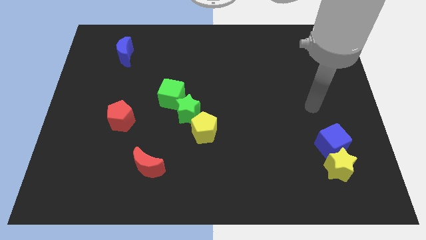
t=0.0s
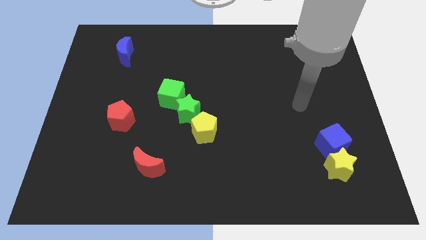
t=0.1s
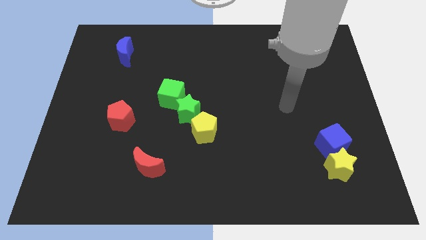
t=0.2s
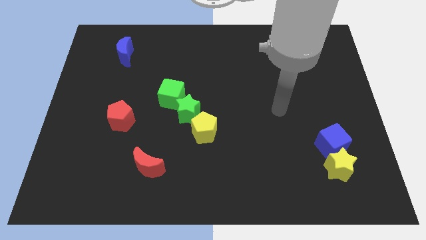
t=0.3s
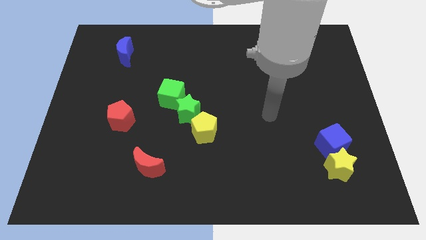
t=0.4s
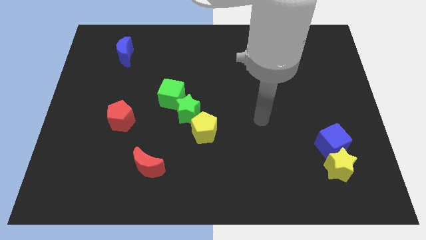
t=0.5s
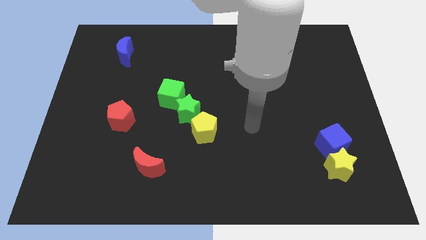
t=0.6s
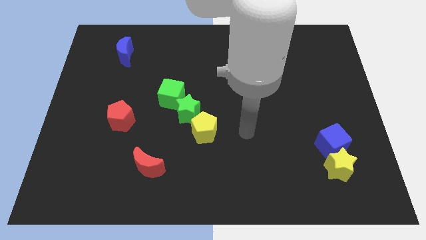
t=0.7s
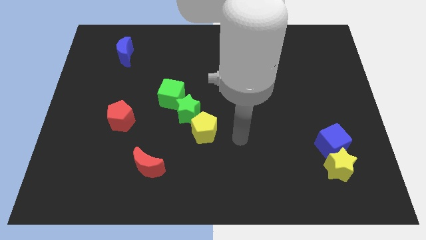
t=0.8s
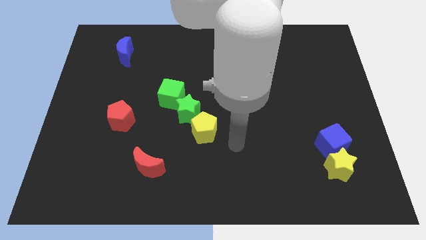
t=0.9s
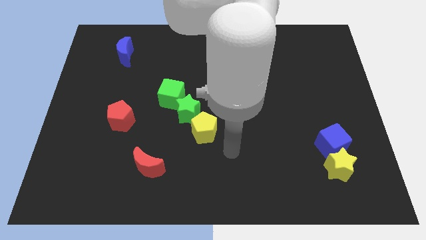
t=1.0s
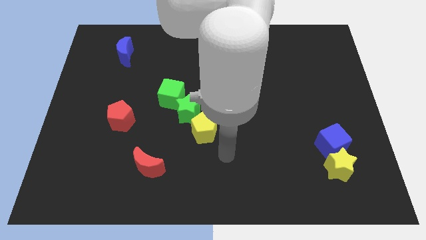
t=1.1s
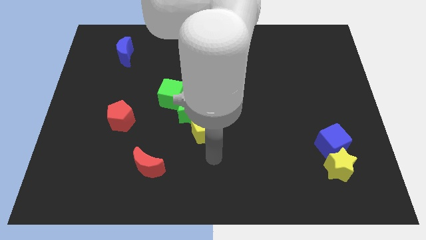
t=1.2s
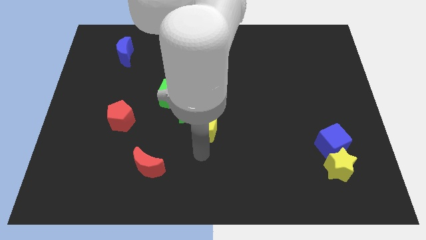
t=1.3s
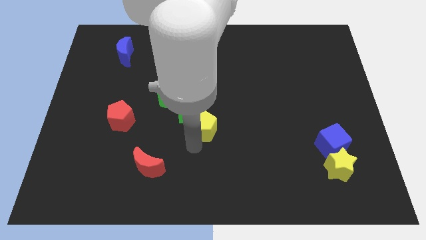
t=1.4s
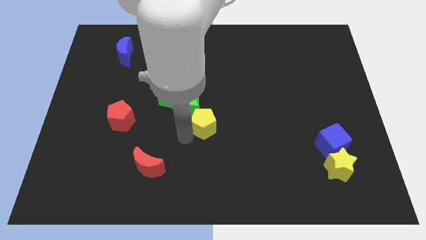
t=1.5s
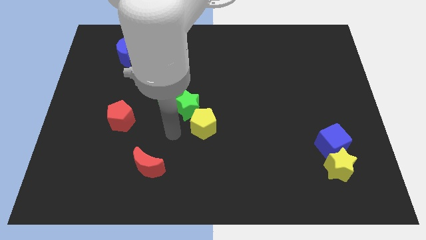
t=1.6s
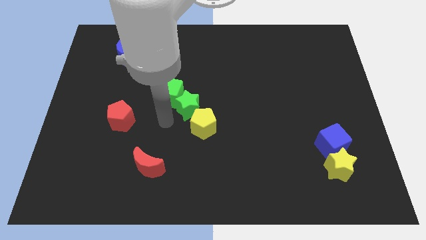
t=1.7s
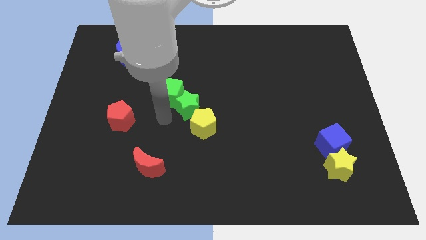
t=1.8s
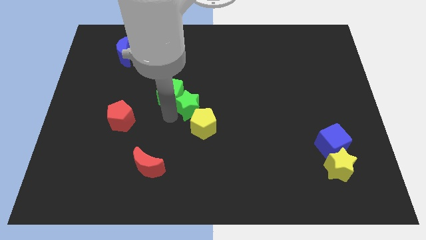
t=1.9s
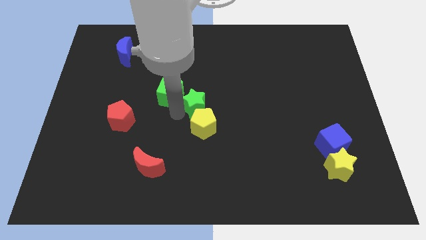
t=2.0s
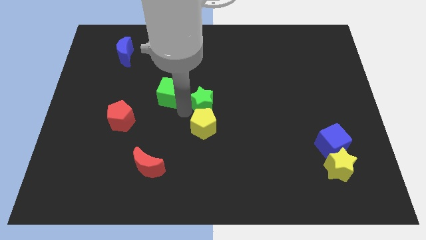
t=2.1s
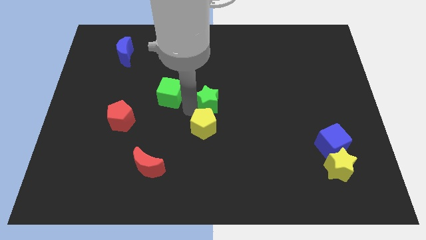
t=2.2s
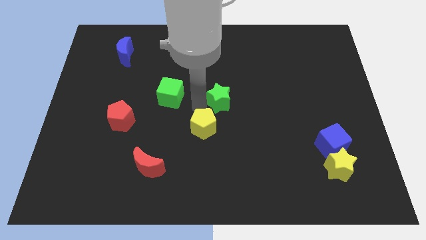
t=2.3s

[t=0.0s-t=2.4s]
push the green star a little up and right

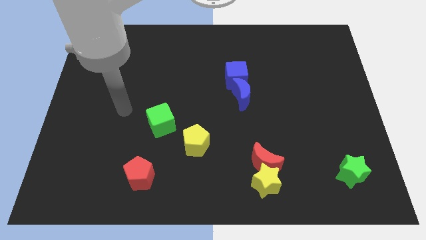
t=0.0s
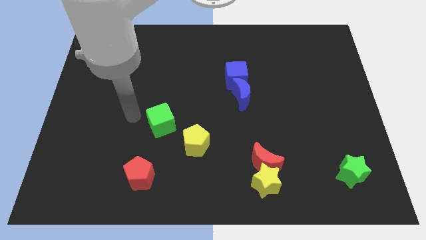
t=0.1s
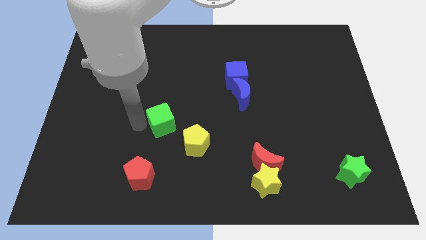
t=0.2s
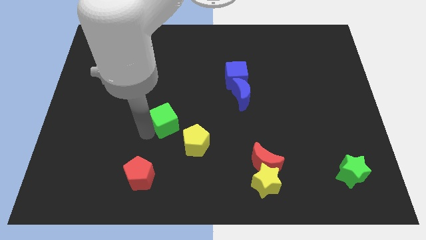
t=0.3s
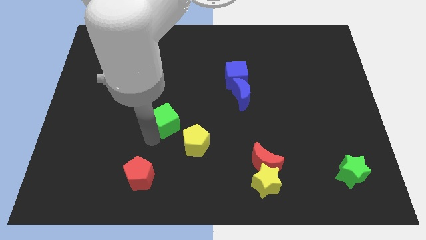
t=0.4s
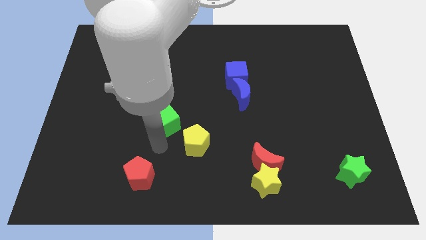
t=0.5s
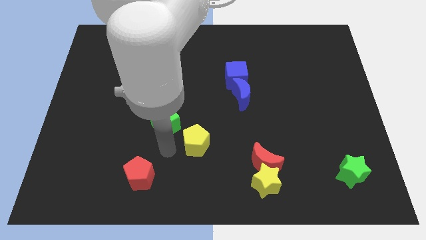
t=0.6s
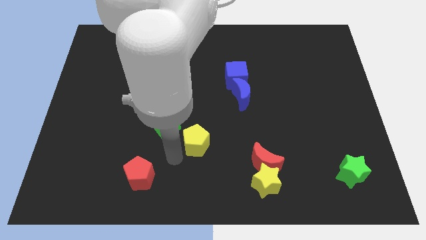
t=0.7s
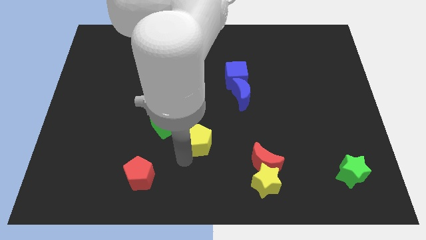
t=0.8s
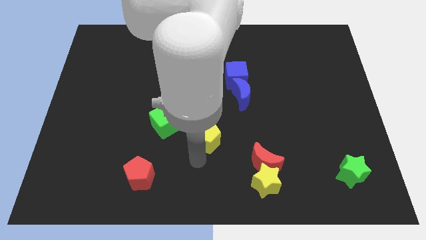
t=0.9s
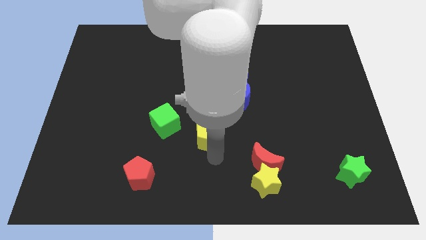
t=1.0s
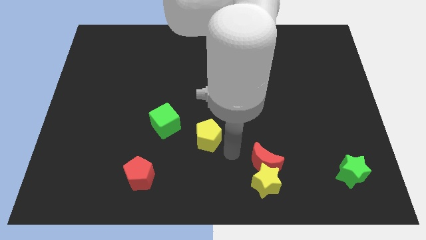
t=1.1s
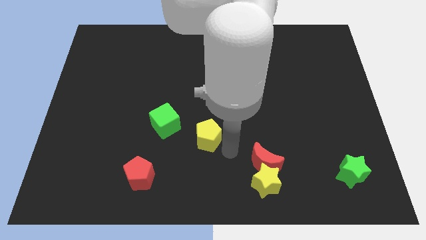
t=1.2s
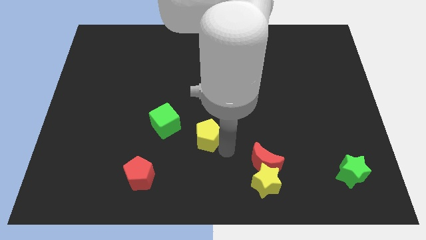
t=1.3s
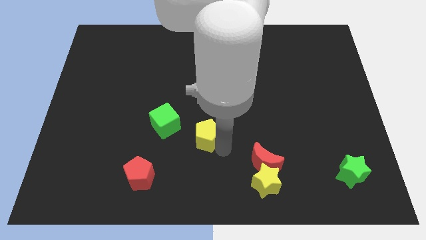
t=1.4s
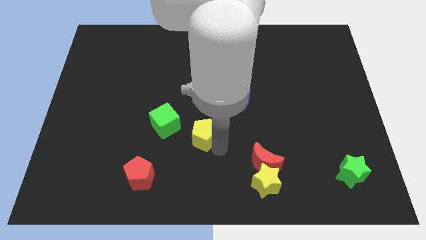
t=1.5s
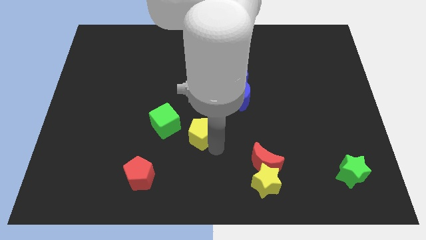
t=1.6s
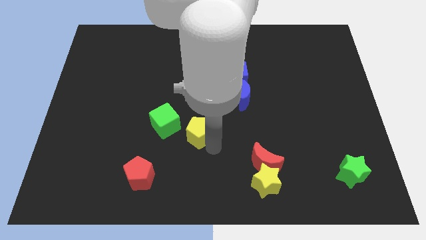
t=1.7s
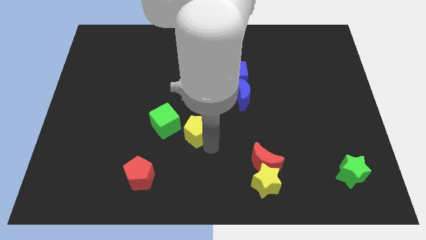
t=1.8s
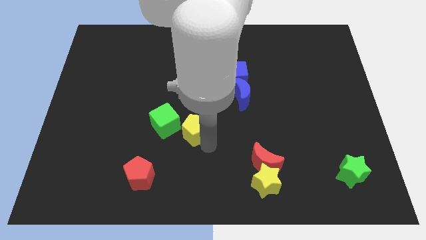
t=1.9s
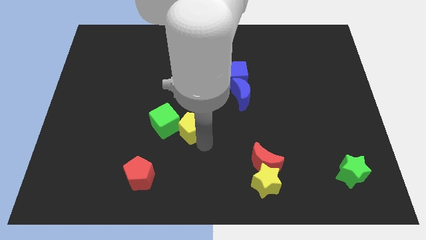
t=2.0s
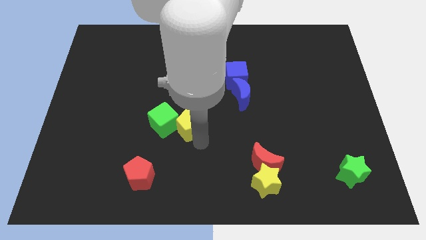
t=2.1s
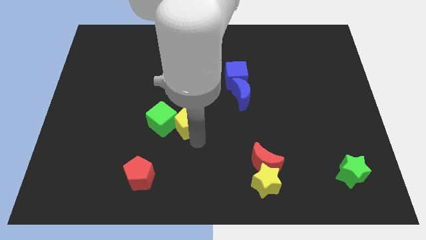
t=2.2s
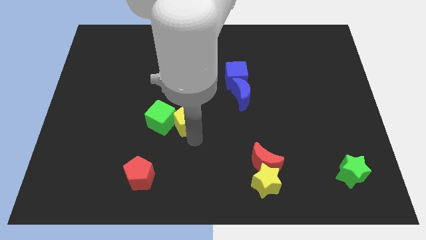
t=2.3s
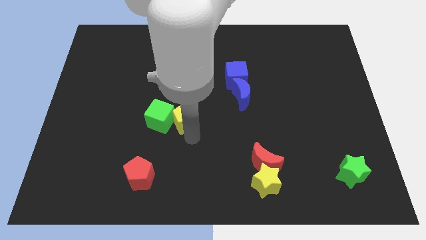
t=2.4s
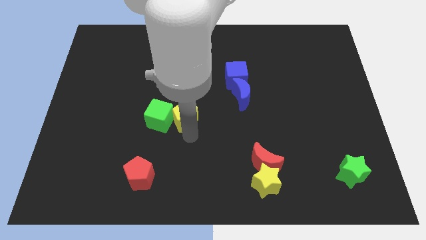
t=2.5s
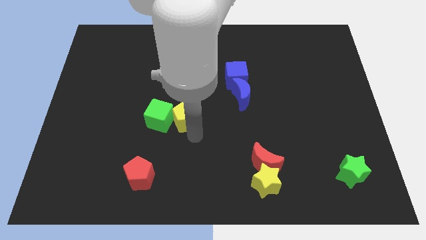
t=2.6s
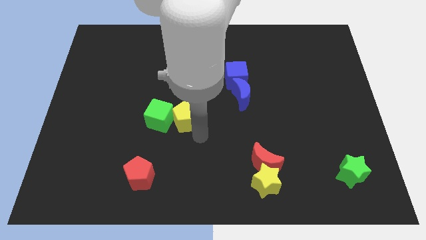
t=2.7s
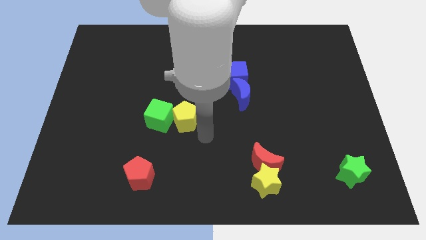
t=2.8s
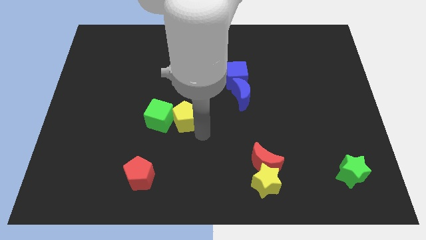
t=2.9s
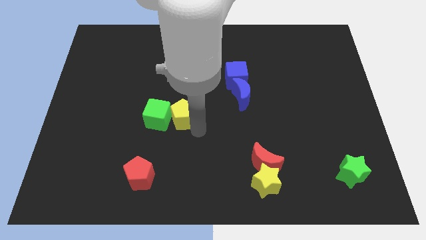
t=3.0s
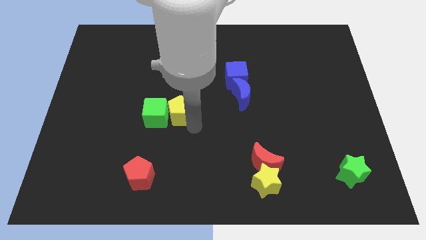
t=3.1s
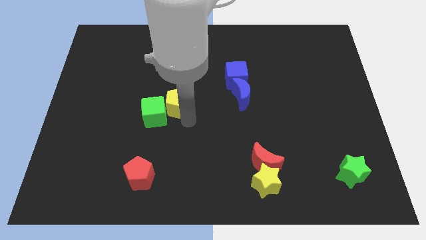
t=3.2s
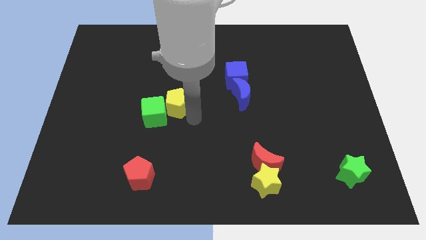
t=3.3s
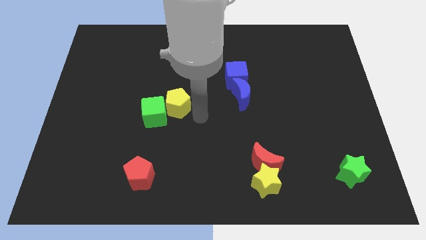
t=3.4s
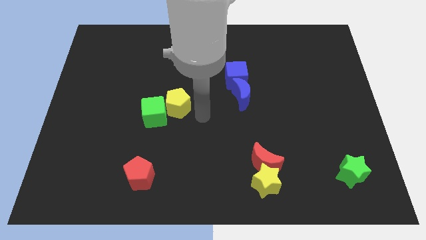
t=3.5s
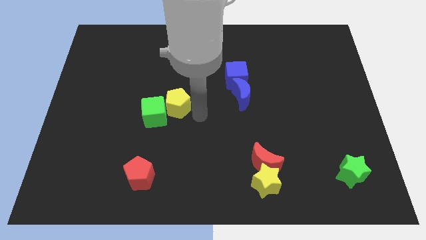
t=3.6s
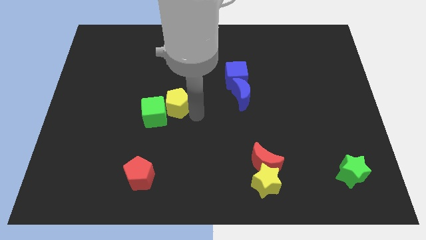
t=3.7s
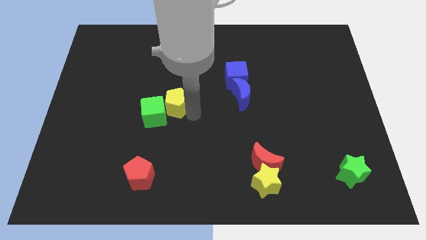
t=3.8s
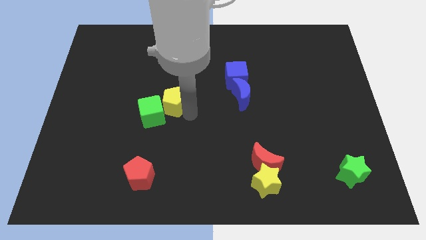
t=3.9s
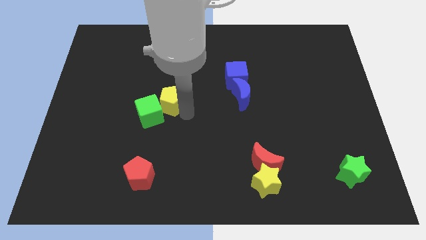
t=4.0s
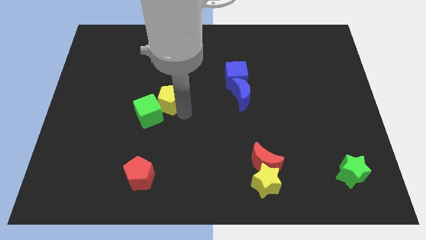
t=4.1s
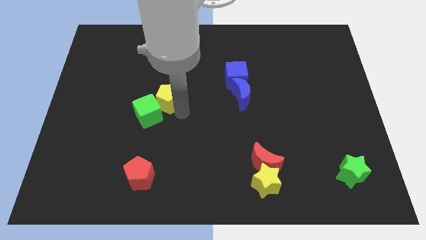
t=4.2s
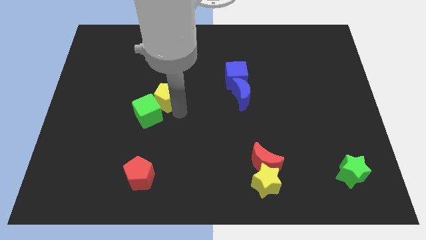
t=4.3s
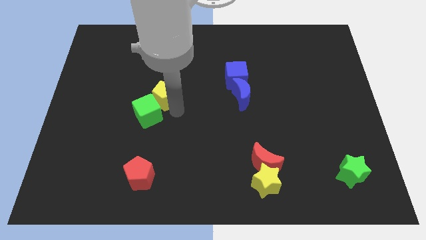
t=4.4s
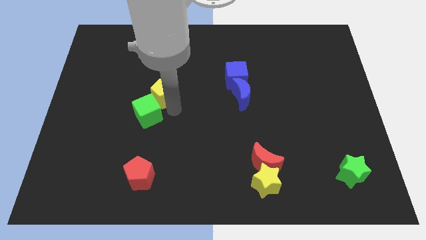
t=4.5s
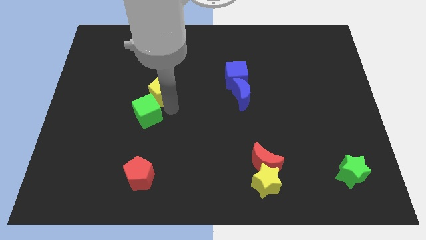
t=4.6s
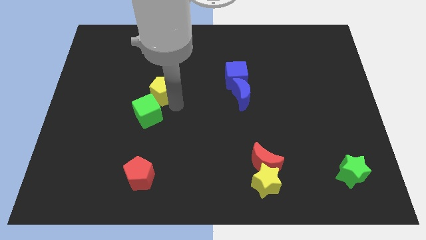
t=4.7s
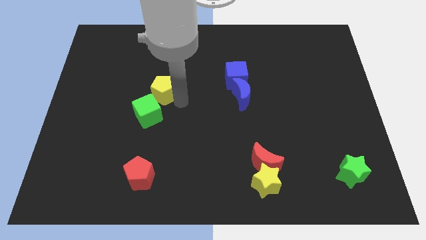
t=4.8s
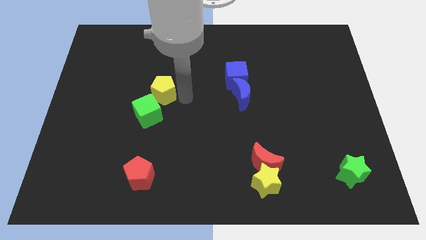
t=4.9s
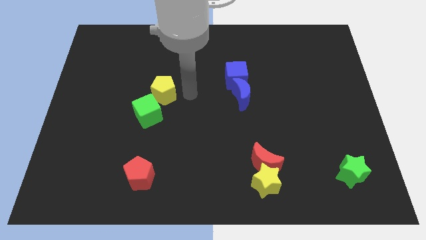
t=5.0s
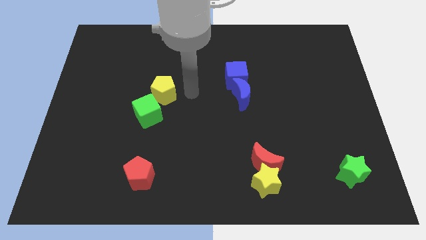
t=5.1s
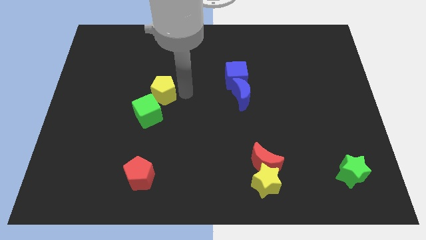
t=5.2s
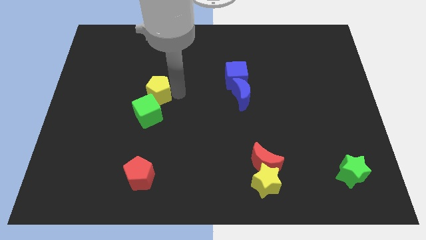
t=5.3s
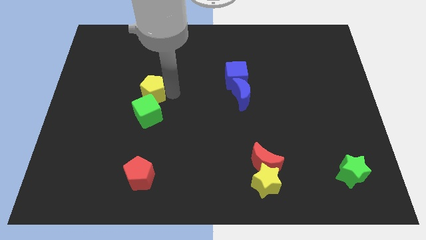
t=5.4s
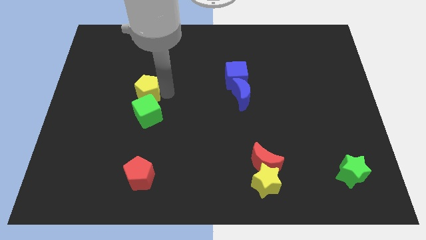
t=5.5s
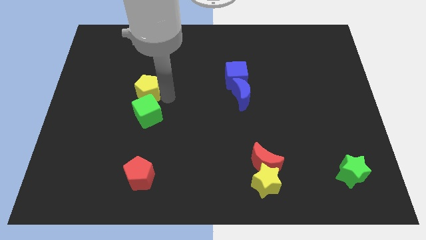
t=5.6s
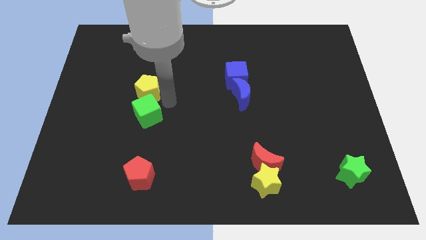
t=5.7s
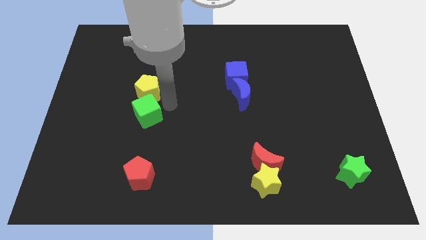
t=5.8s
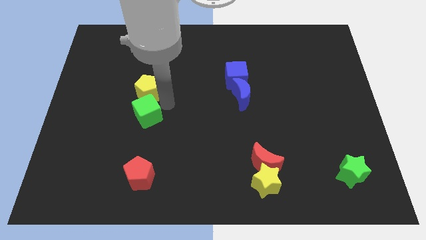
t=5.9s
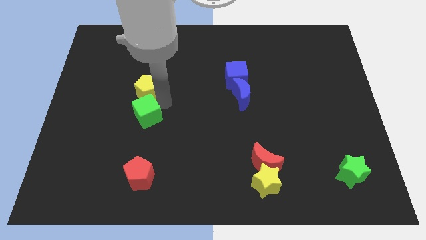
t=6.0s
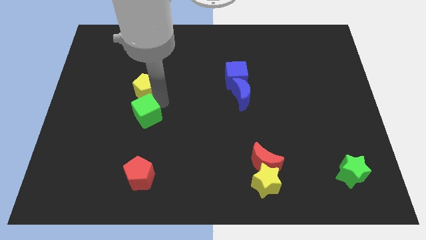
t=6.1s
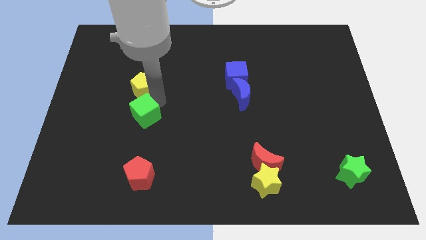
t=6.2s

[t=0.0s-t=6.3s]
move the yellow pentagon up and then left
